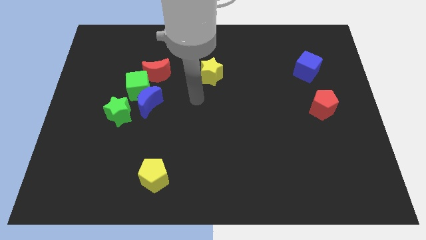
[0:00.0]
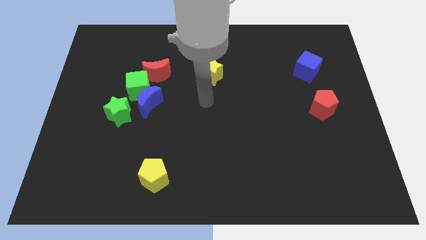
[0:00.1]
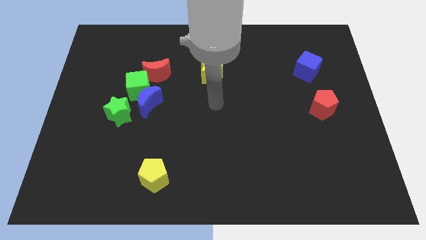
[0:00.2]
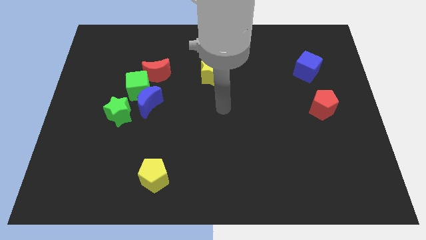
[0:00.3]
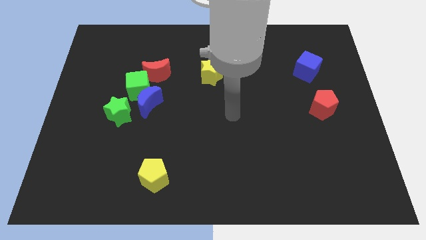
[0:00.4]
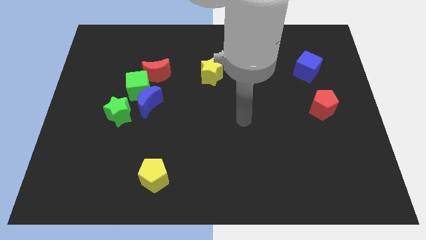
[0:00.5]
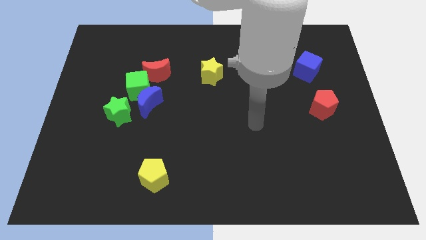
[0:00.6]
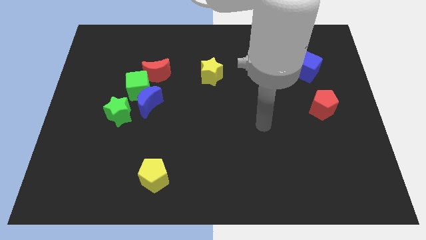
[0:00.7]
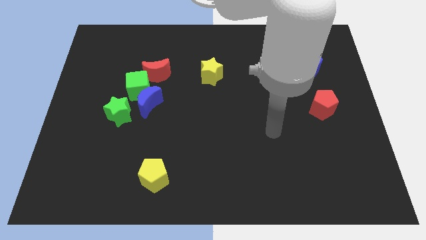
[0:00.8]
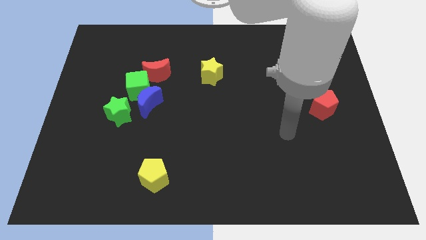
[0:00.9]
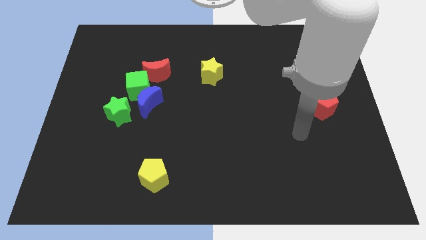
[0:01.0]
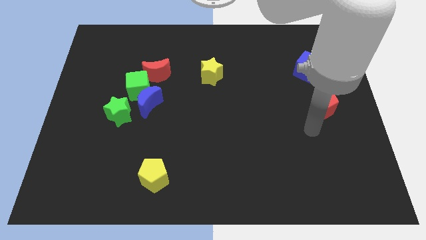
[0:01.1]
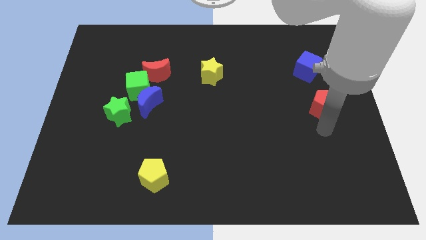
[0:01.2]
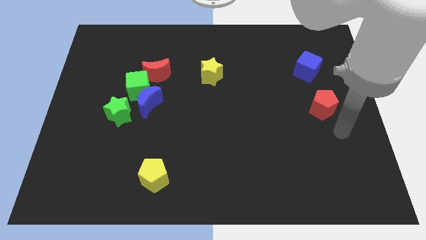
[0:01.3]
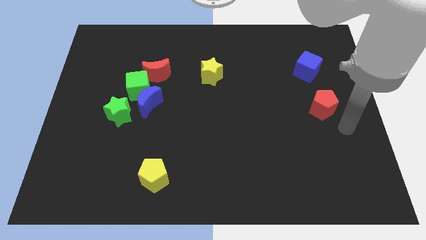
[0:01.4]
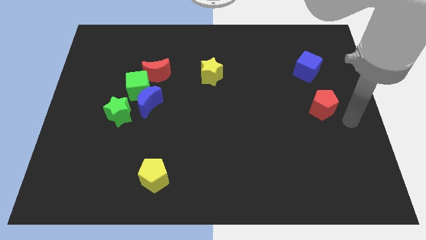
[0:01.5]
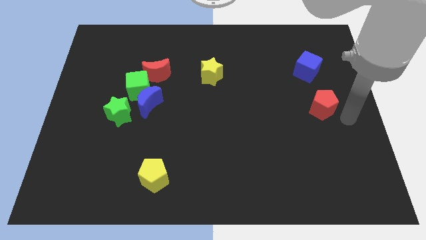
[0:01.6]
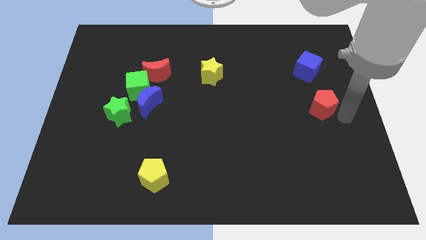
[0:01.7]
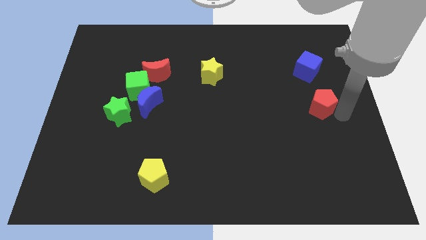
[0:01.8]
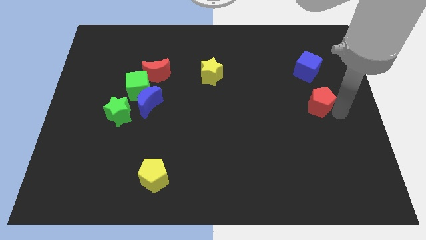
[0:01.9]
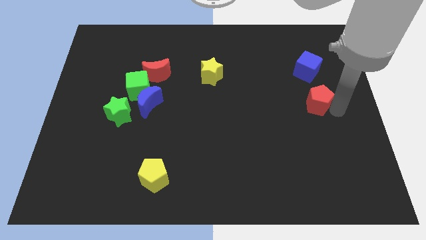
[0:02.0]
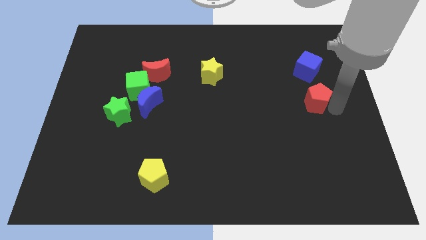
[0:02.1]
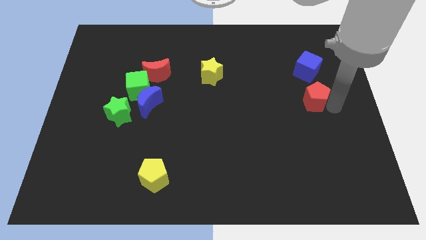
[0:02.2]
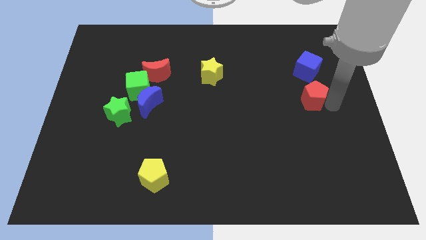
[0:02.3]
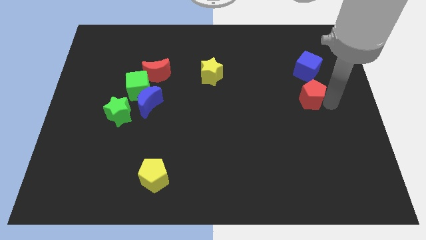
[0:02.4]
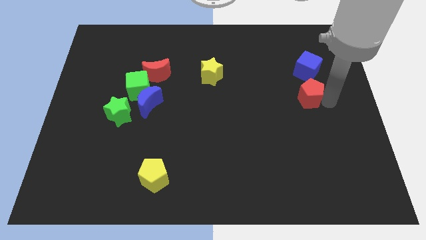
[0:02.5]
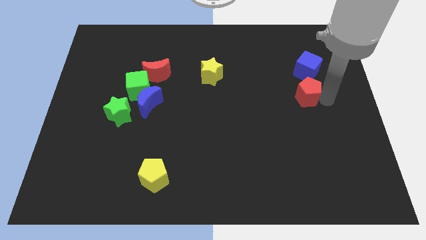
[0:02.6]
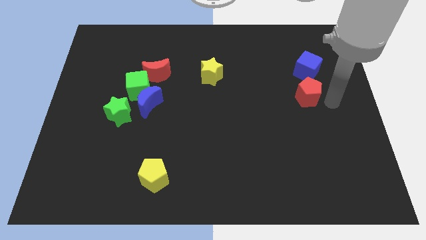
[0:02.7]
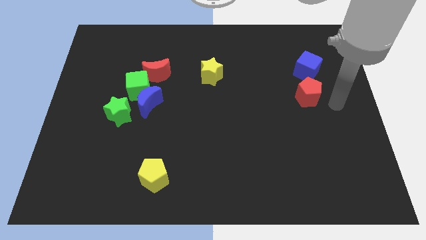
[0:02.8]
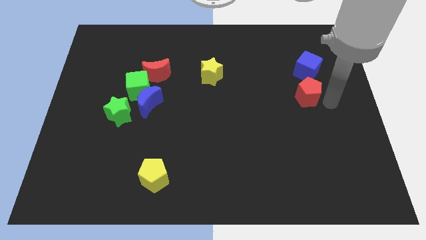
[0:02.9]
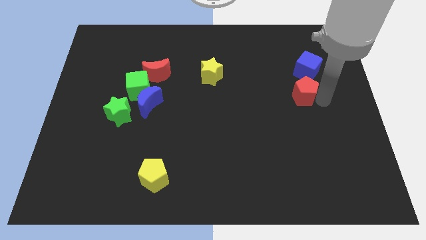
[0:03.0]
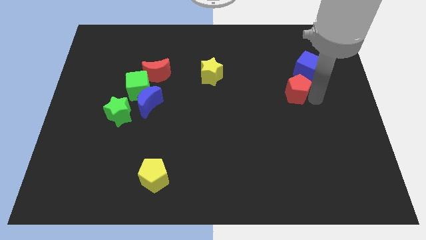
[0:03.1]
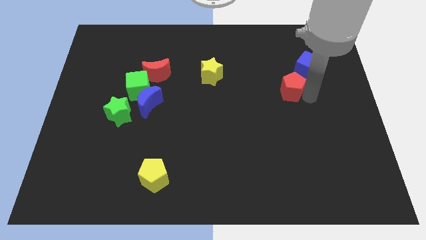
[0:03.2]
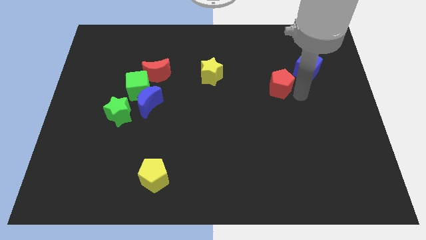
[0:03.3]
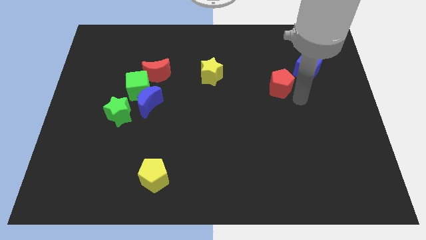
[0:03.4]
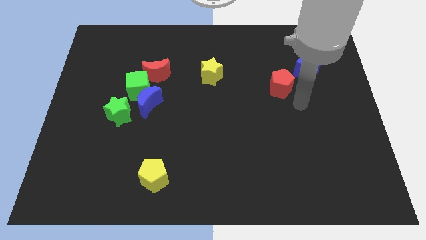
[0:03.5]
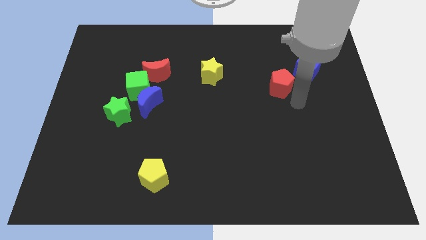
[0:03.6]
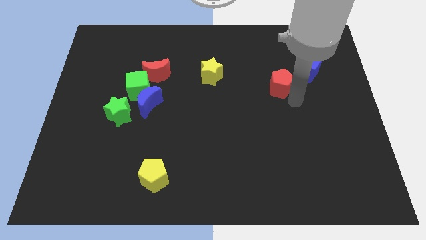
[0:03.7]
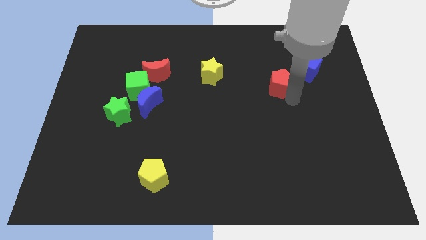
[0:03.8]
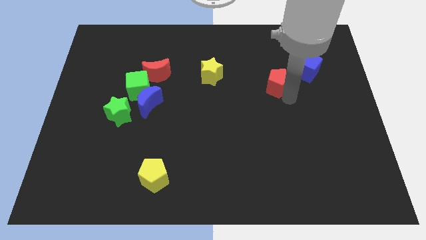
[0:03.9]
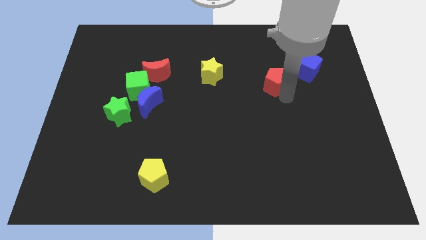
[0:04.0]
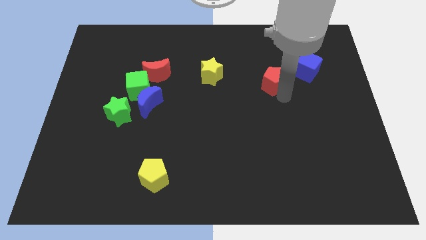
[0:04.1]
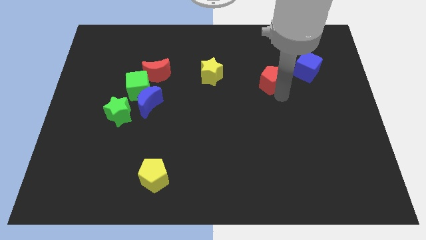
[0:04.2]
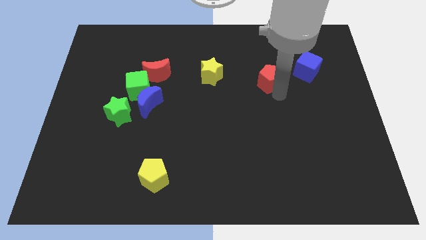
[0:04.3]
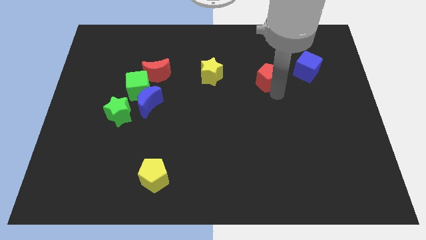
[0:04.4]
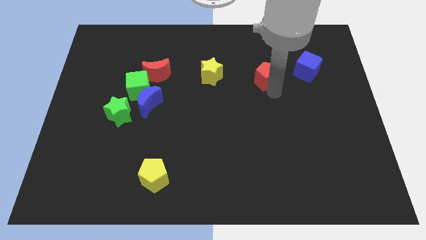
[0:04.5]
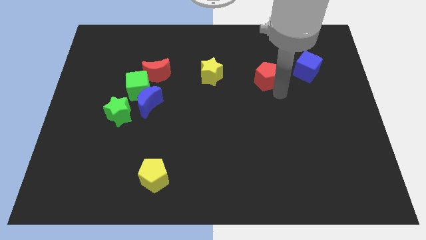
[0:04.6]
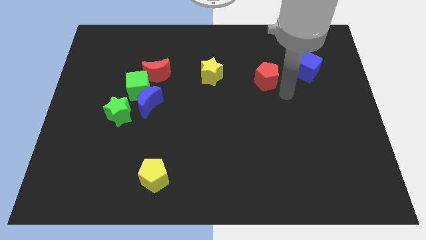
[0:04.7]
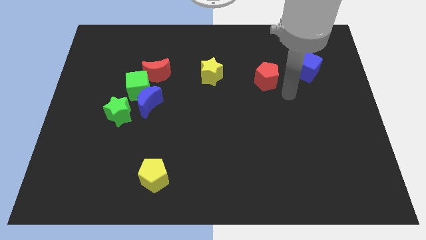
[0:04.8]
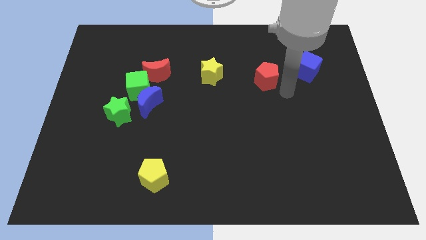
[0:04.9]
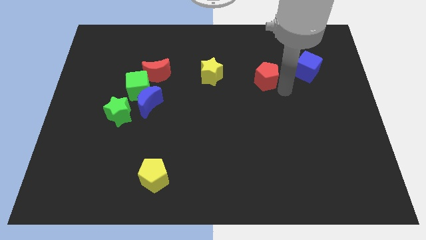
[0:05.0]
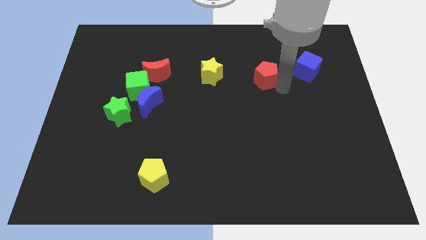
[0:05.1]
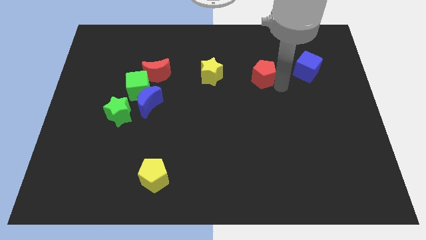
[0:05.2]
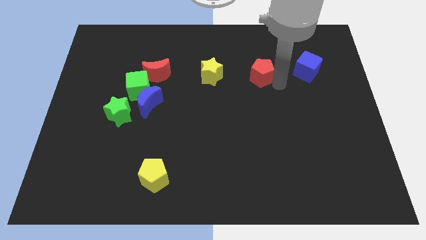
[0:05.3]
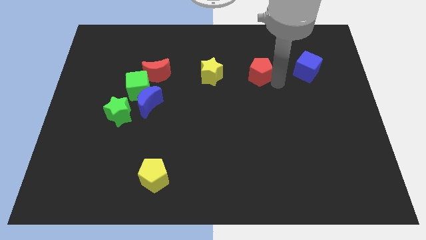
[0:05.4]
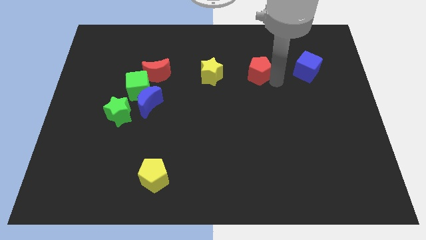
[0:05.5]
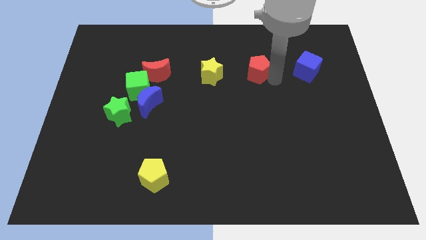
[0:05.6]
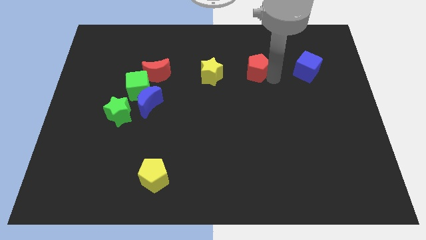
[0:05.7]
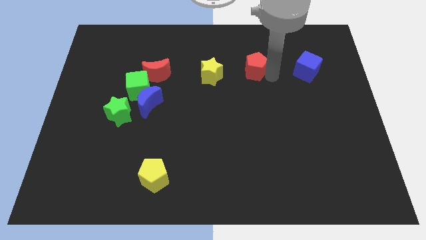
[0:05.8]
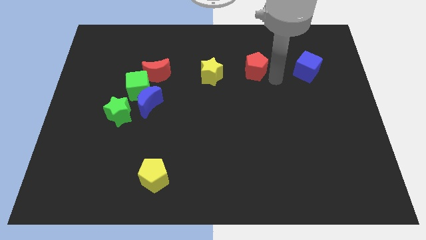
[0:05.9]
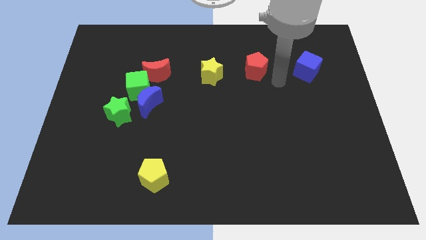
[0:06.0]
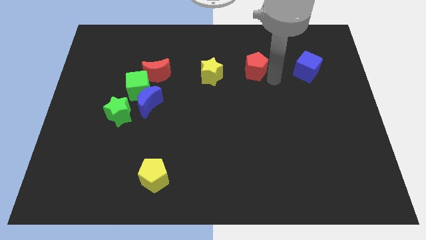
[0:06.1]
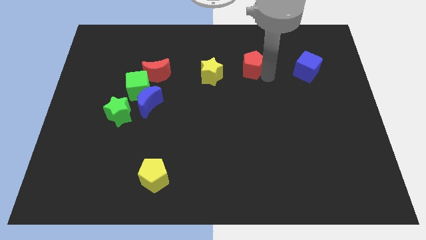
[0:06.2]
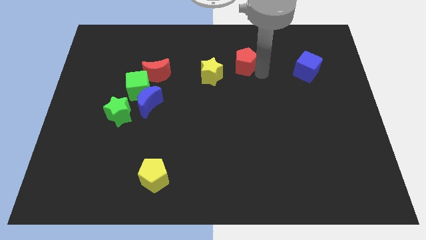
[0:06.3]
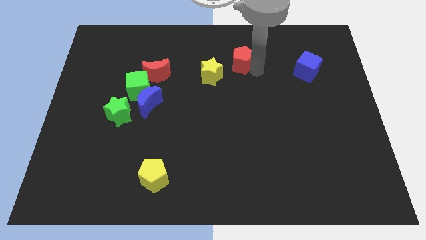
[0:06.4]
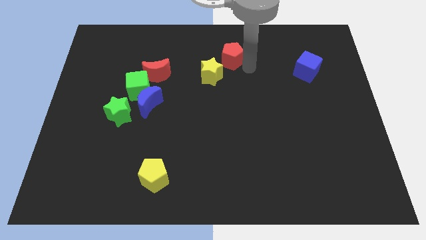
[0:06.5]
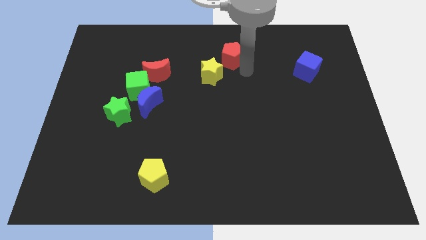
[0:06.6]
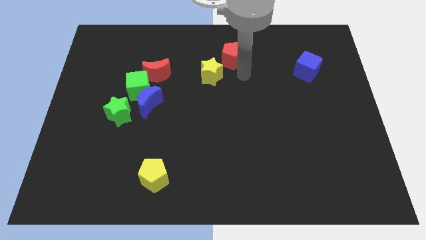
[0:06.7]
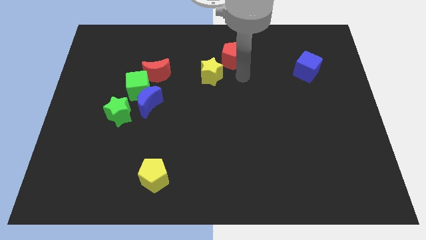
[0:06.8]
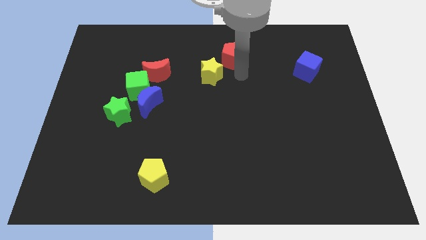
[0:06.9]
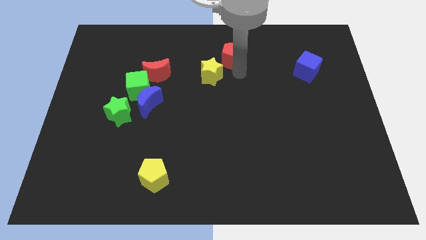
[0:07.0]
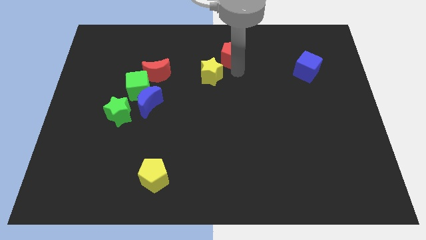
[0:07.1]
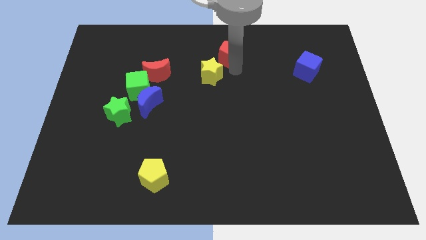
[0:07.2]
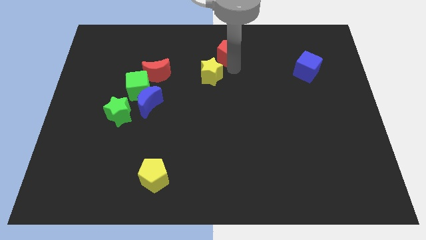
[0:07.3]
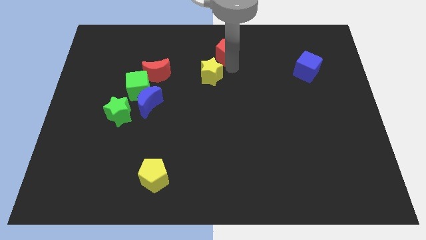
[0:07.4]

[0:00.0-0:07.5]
move the red pentagon to the towards your base
